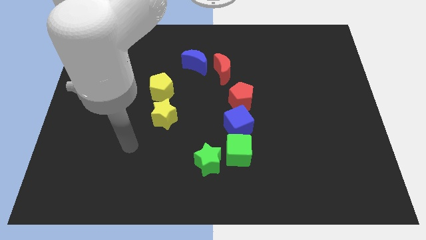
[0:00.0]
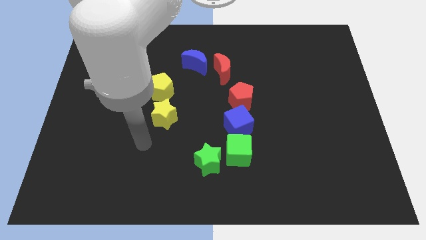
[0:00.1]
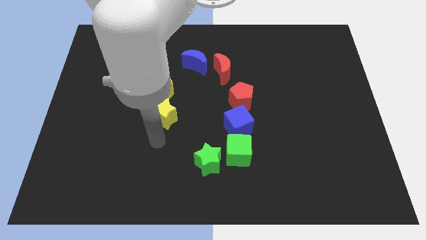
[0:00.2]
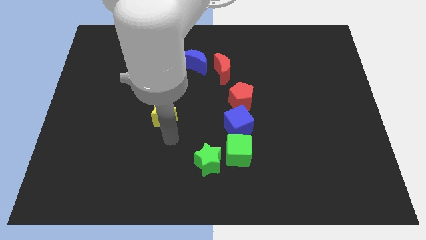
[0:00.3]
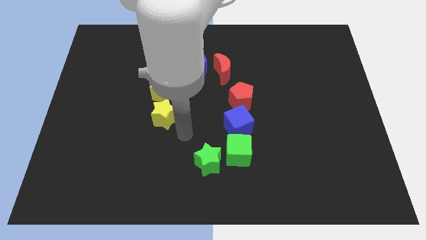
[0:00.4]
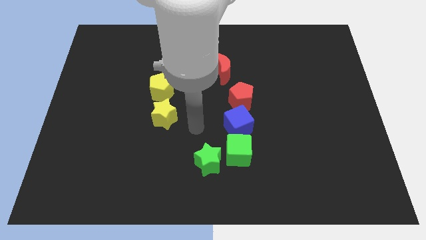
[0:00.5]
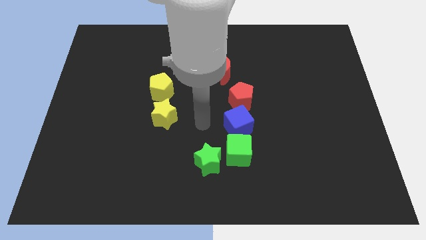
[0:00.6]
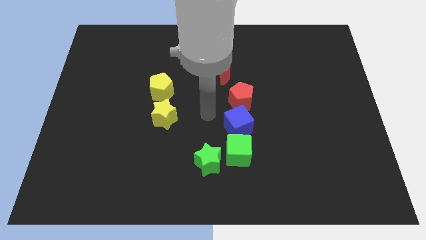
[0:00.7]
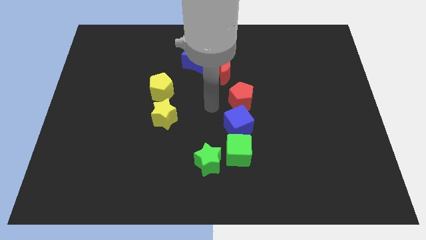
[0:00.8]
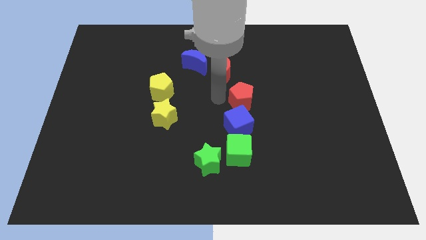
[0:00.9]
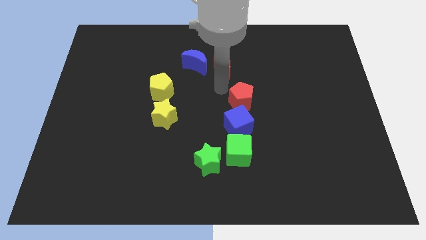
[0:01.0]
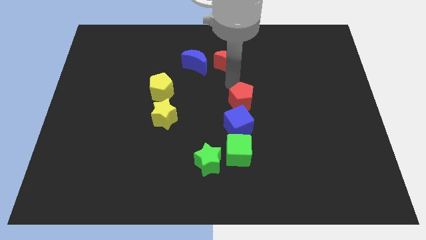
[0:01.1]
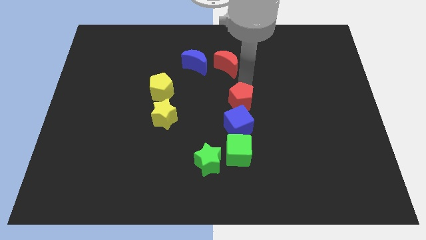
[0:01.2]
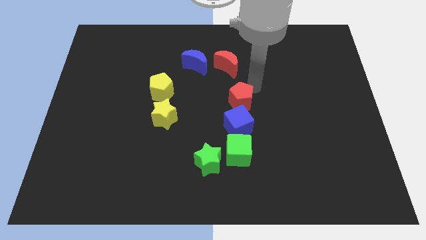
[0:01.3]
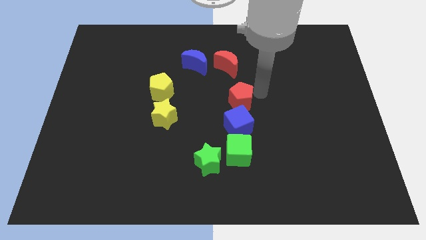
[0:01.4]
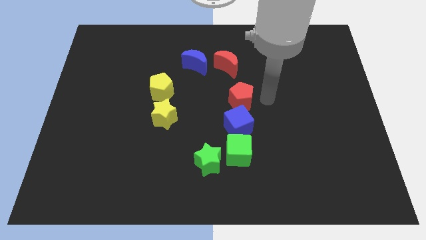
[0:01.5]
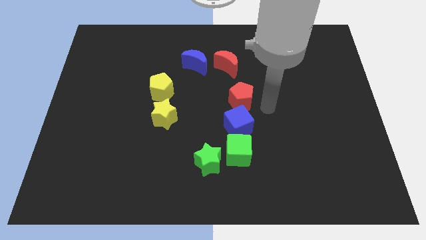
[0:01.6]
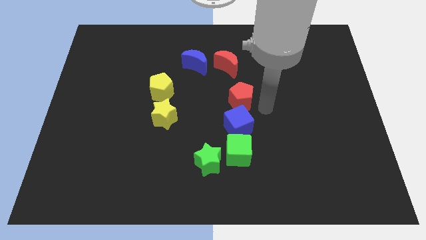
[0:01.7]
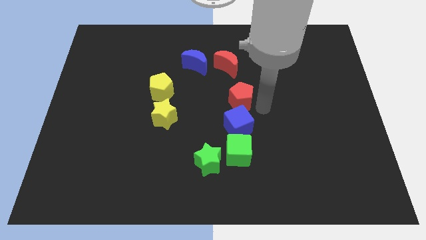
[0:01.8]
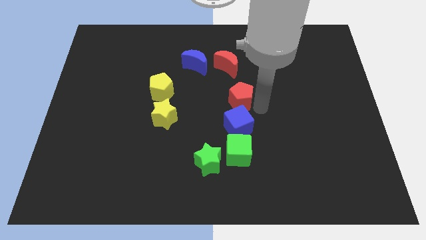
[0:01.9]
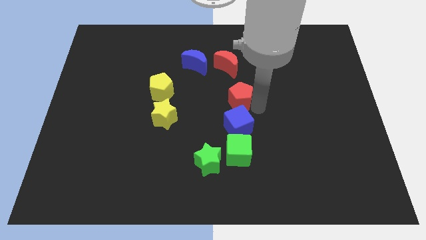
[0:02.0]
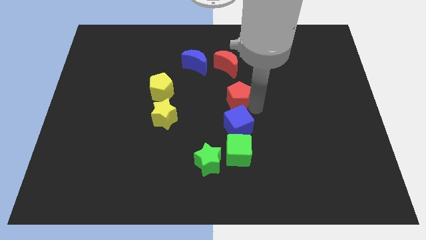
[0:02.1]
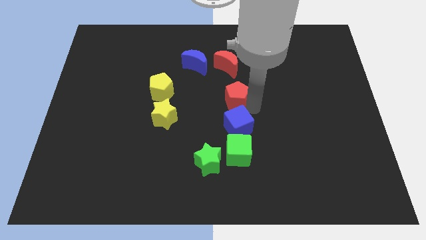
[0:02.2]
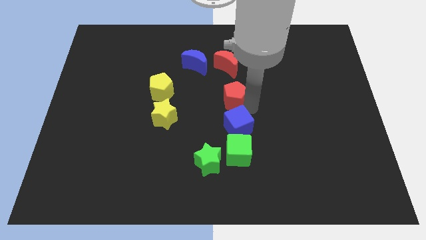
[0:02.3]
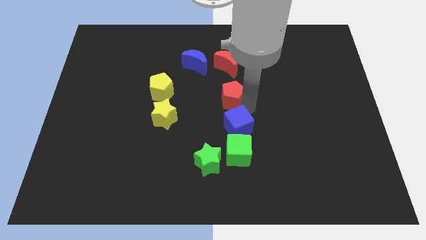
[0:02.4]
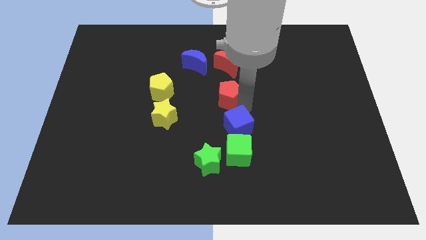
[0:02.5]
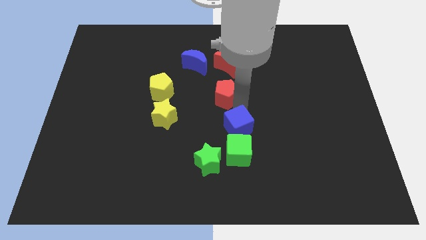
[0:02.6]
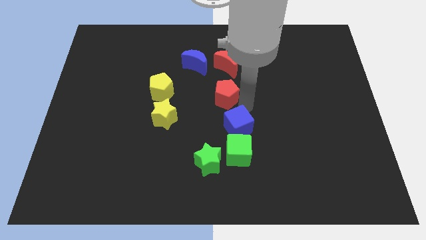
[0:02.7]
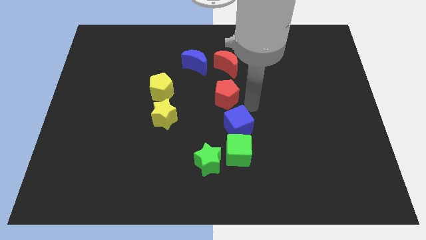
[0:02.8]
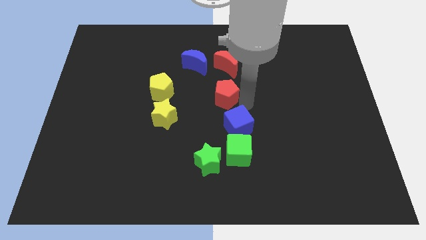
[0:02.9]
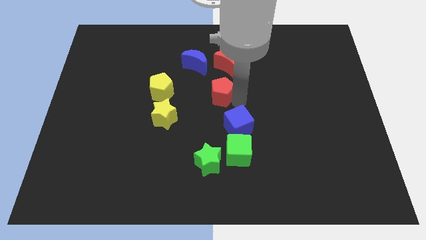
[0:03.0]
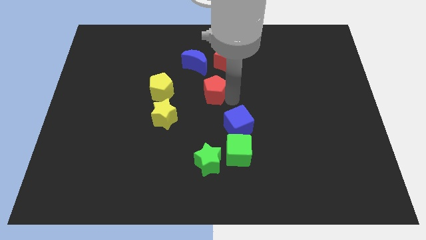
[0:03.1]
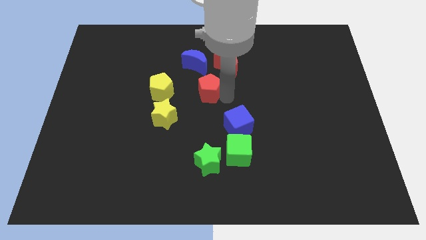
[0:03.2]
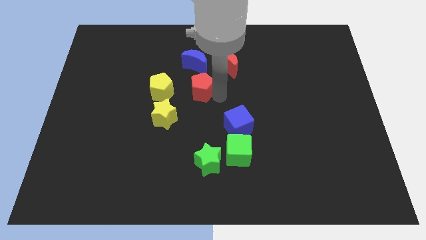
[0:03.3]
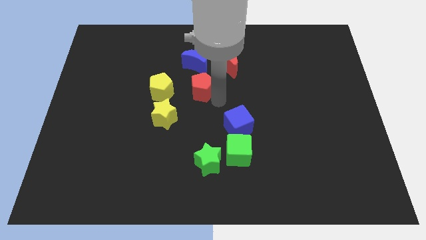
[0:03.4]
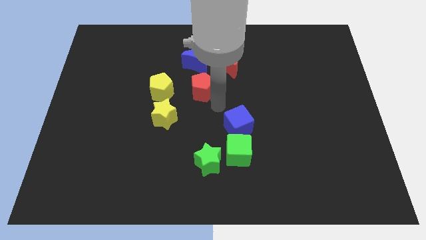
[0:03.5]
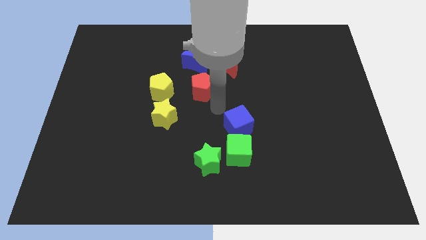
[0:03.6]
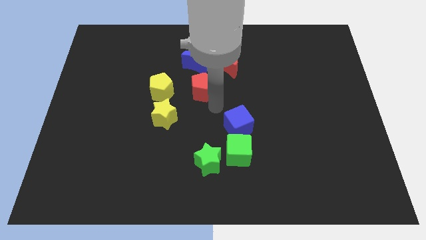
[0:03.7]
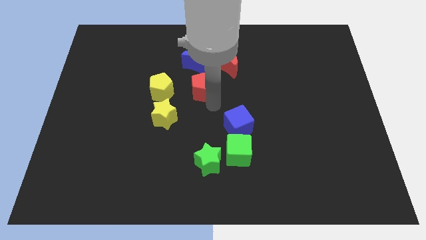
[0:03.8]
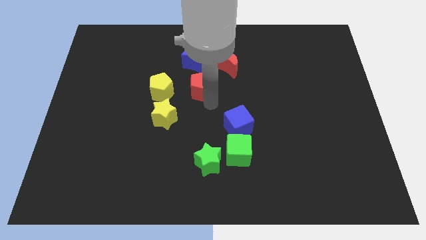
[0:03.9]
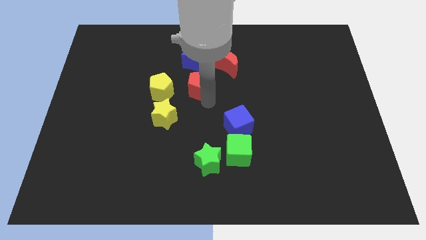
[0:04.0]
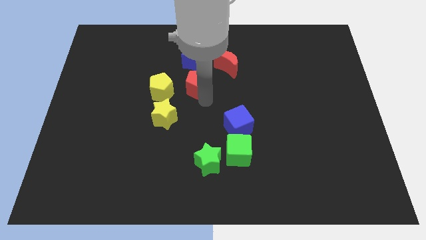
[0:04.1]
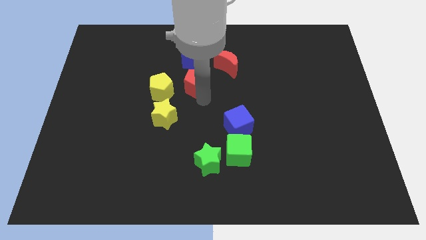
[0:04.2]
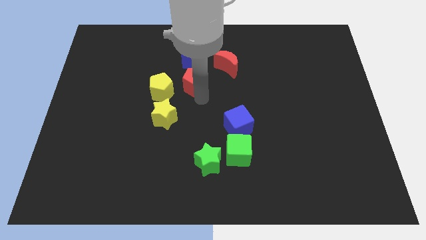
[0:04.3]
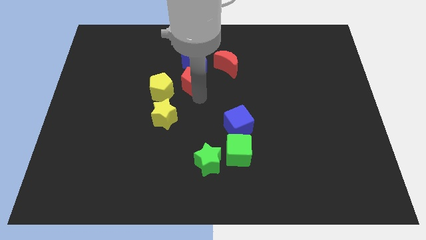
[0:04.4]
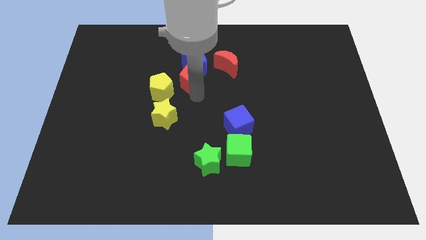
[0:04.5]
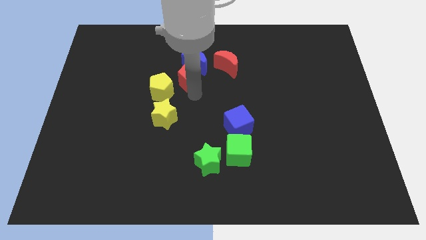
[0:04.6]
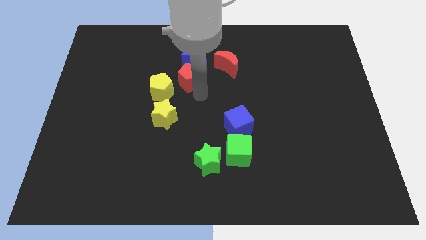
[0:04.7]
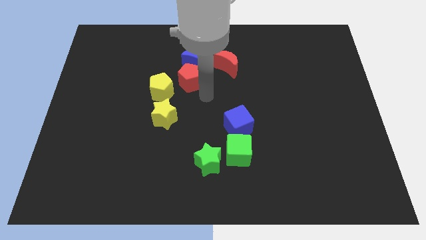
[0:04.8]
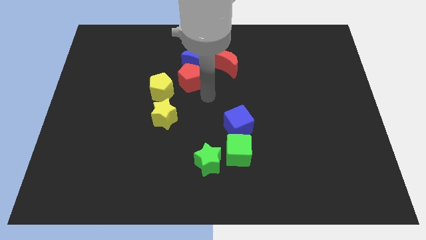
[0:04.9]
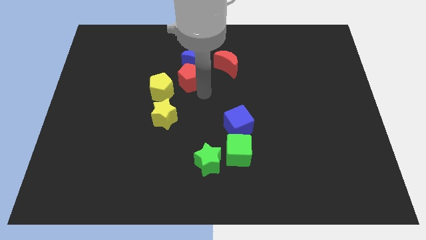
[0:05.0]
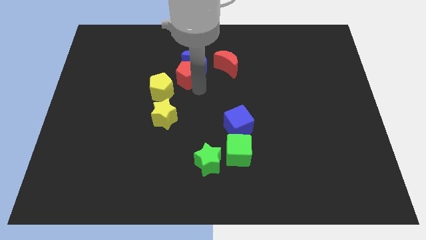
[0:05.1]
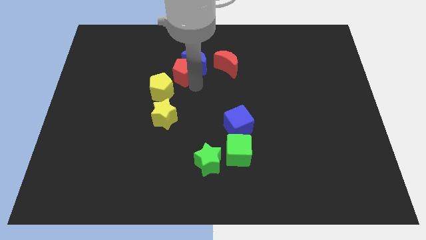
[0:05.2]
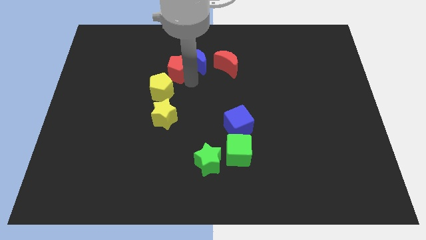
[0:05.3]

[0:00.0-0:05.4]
put the red pentagon above the yellow pentagon

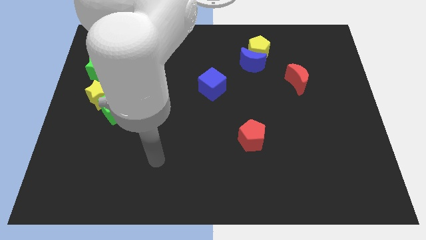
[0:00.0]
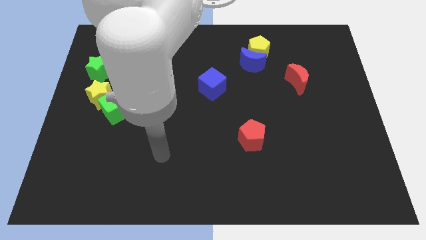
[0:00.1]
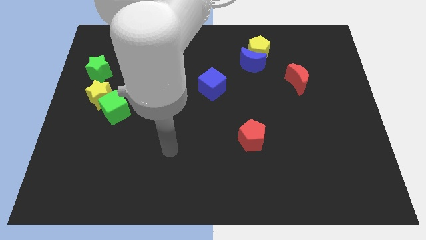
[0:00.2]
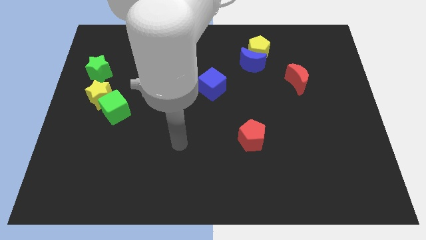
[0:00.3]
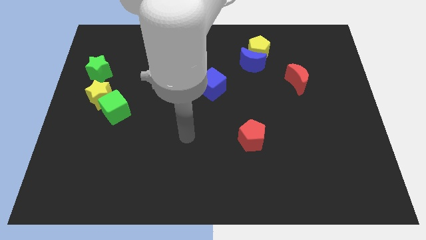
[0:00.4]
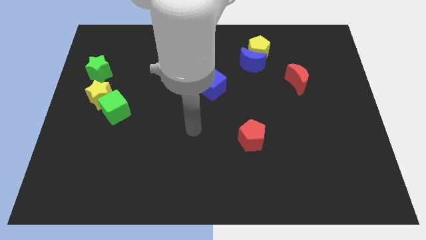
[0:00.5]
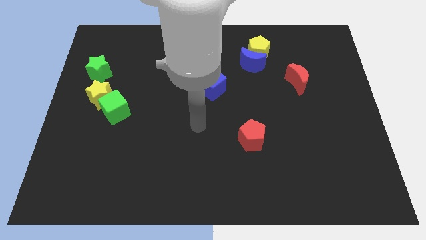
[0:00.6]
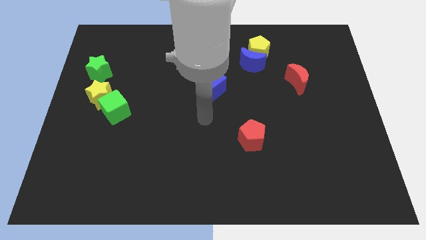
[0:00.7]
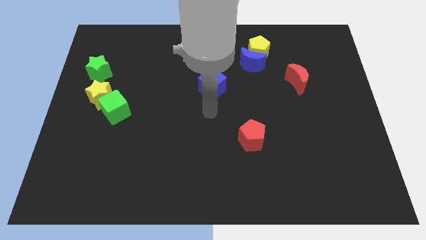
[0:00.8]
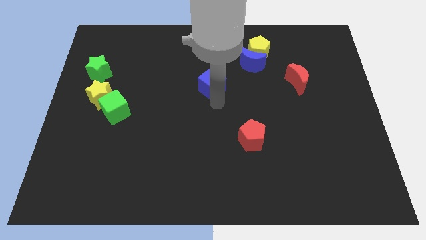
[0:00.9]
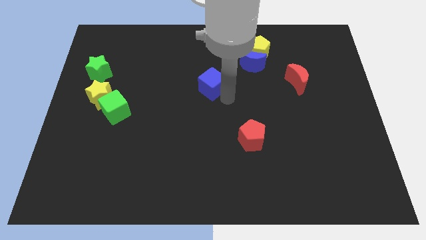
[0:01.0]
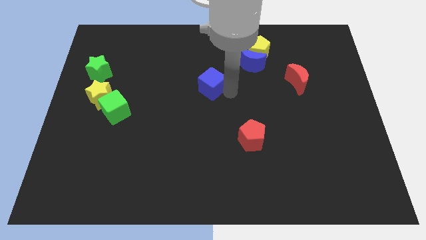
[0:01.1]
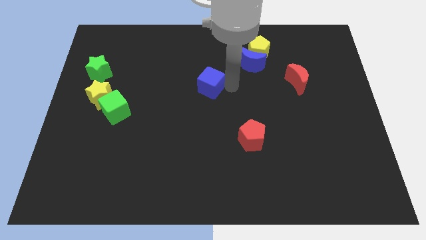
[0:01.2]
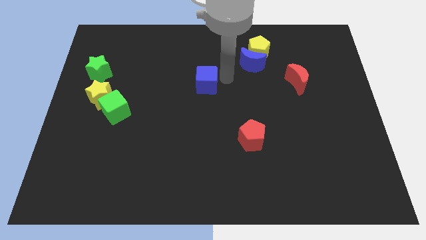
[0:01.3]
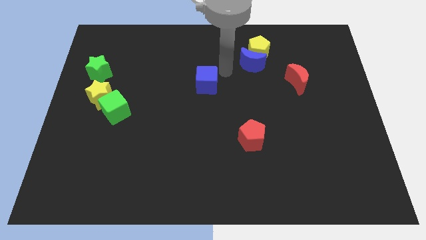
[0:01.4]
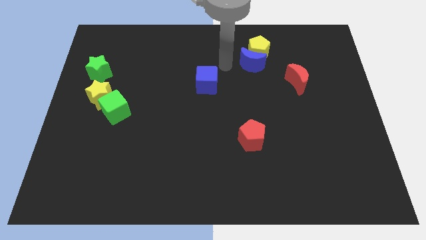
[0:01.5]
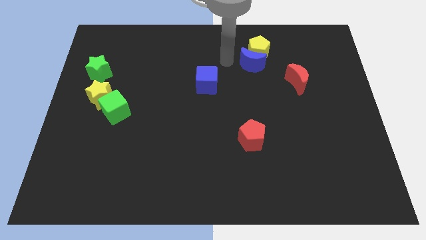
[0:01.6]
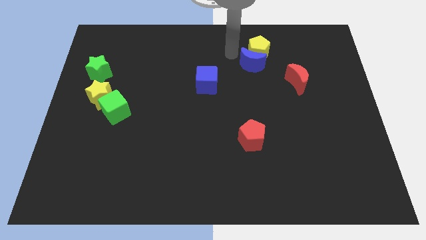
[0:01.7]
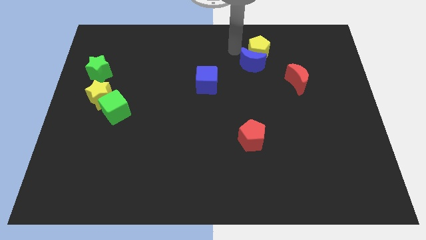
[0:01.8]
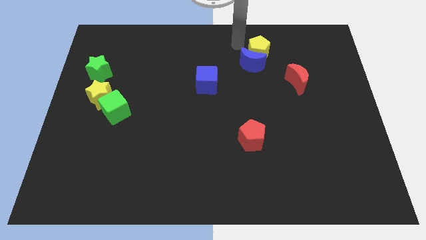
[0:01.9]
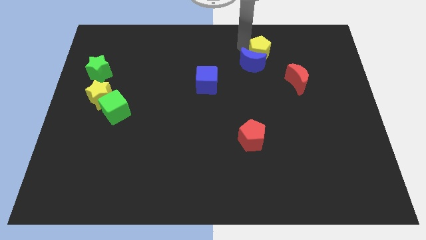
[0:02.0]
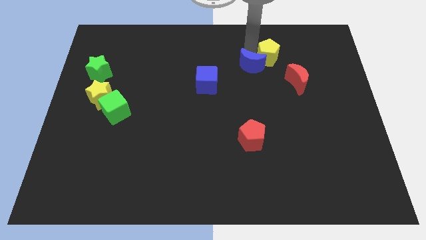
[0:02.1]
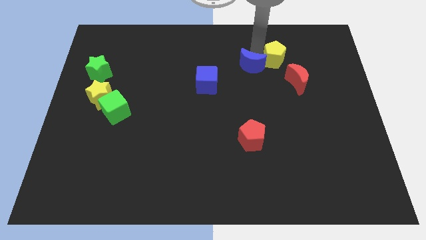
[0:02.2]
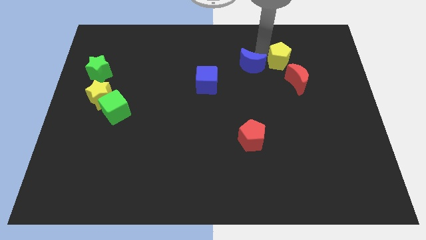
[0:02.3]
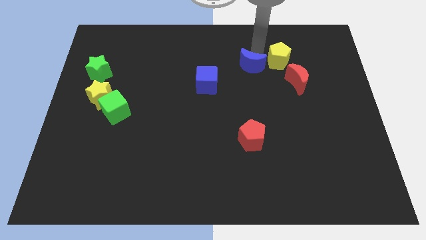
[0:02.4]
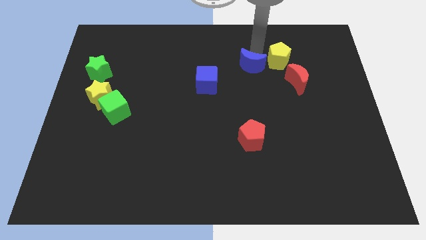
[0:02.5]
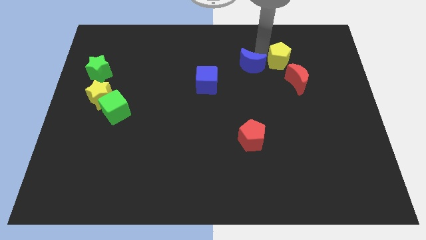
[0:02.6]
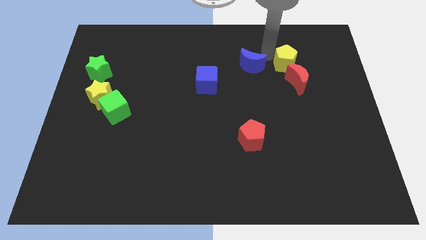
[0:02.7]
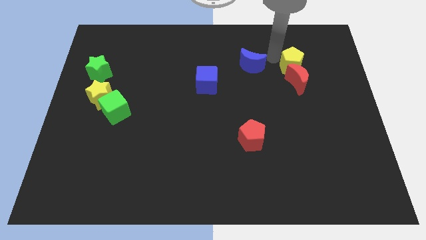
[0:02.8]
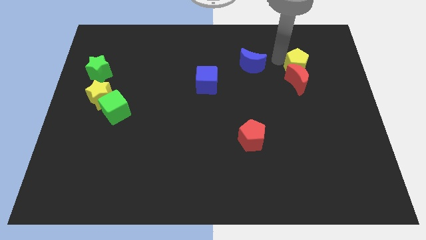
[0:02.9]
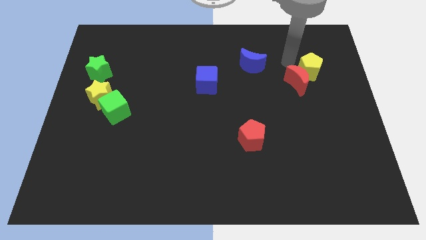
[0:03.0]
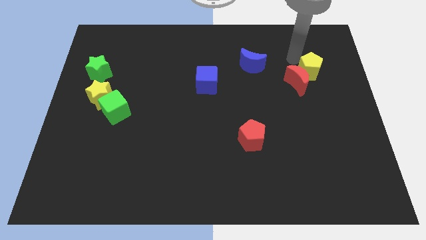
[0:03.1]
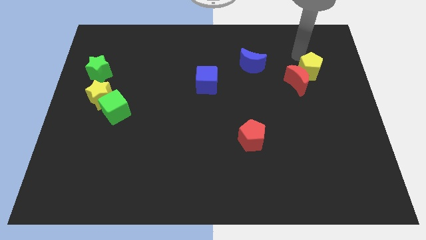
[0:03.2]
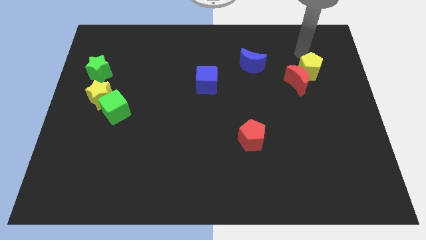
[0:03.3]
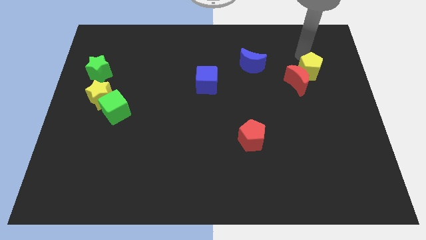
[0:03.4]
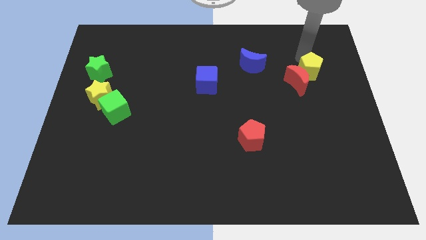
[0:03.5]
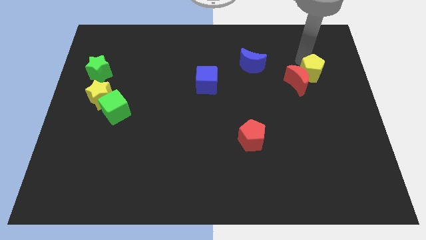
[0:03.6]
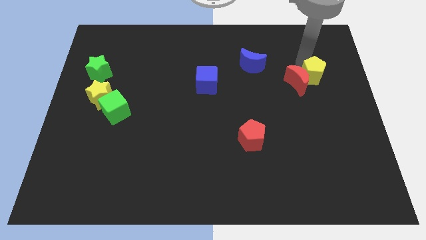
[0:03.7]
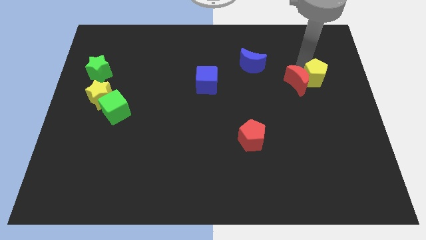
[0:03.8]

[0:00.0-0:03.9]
slide the yellow pentagon to the bottom right side of the red moon
